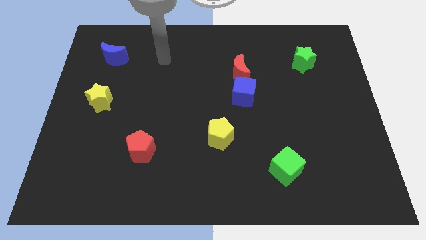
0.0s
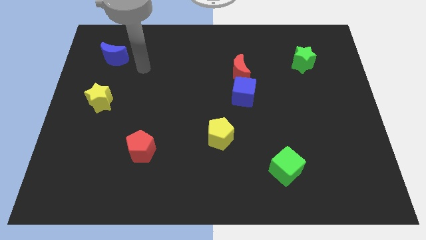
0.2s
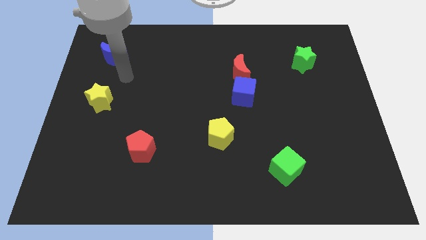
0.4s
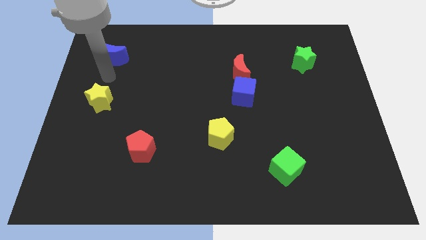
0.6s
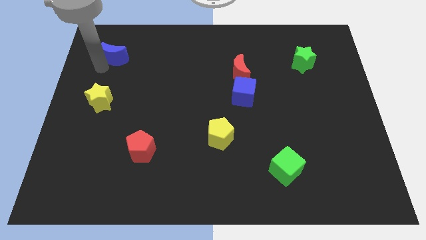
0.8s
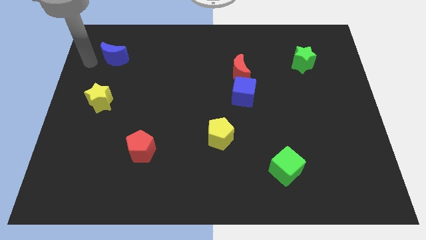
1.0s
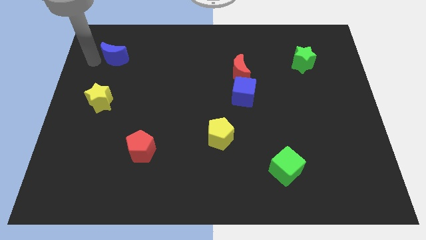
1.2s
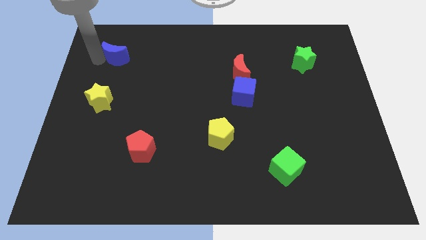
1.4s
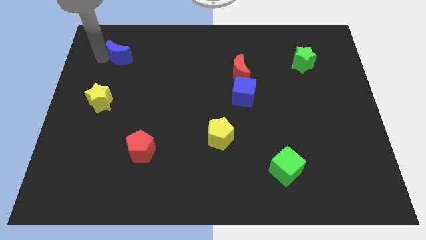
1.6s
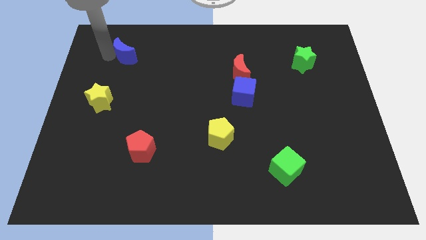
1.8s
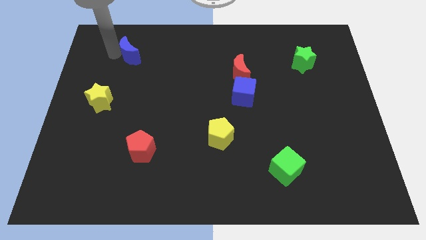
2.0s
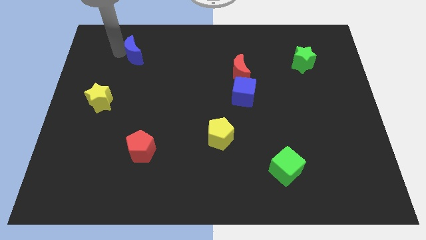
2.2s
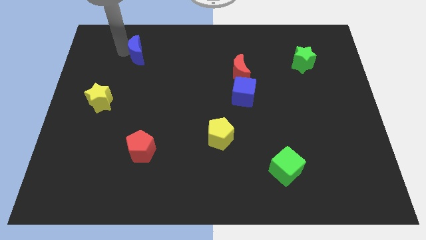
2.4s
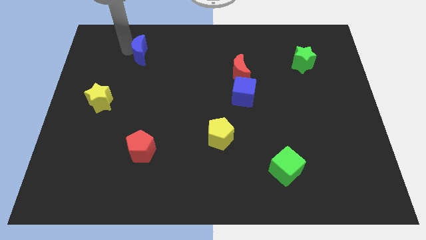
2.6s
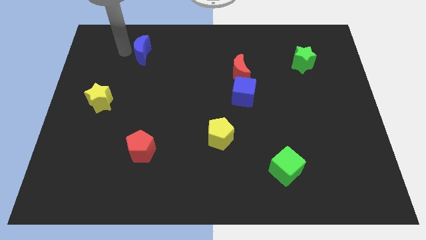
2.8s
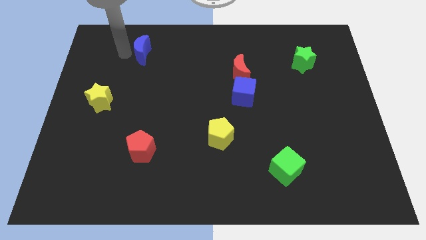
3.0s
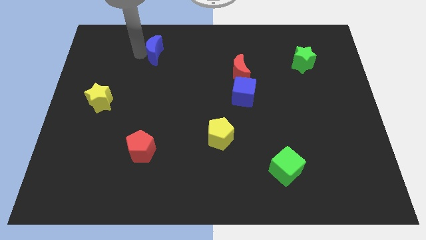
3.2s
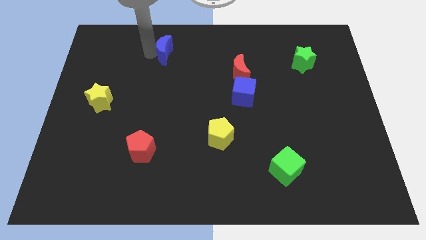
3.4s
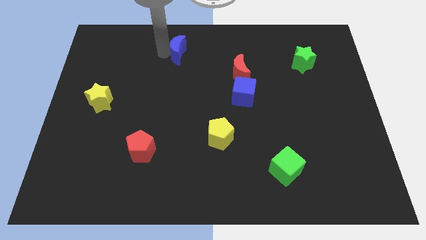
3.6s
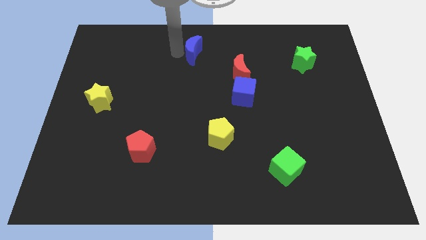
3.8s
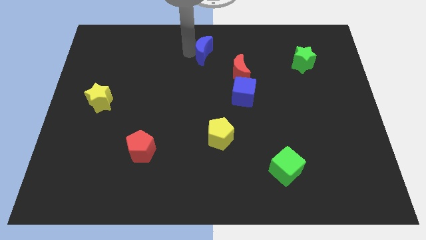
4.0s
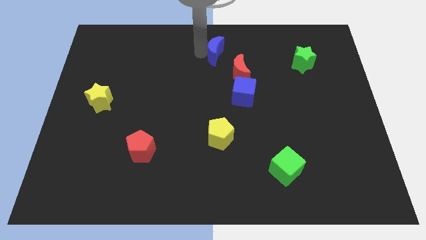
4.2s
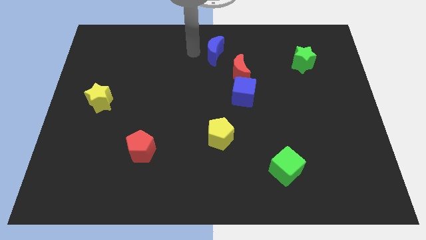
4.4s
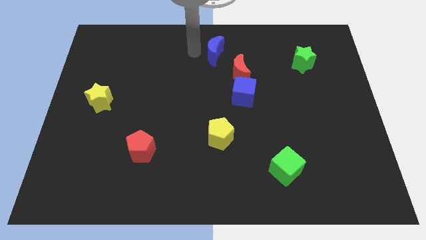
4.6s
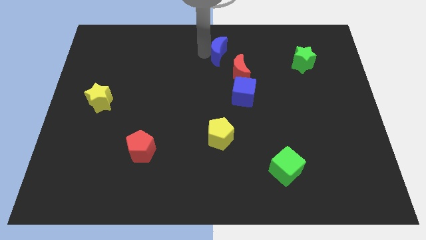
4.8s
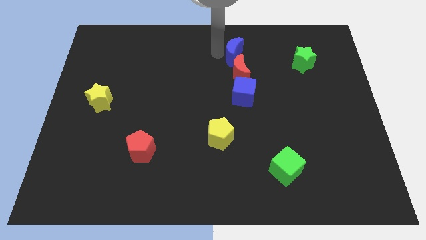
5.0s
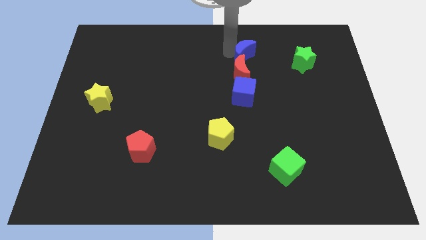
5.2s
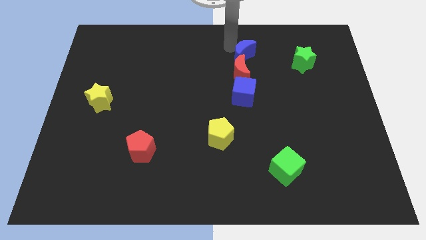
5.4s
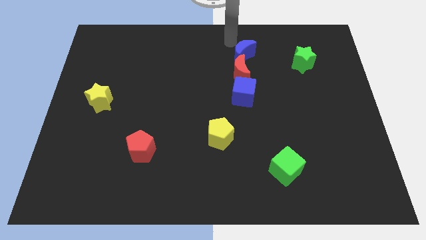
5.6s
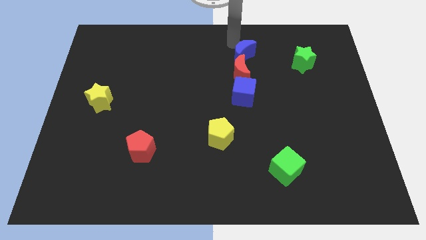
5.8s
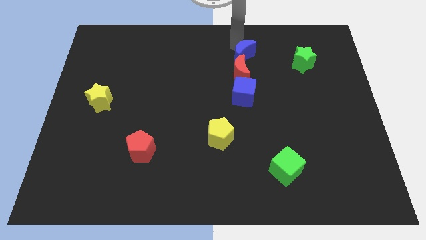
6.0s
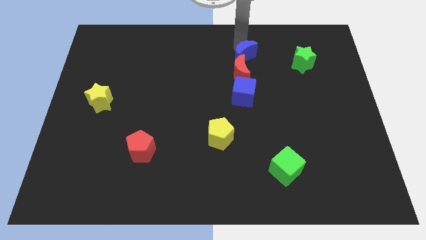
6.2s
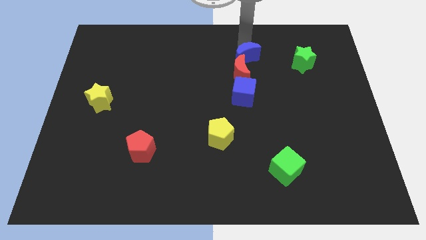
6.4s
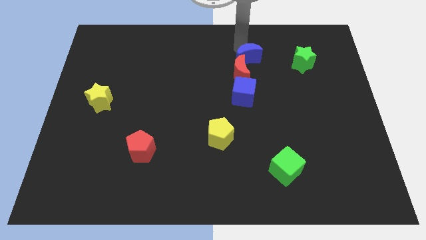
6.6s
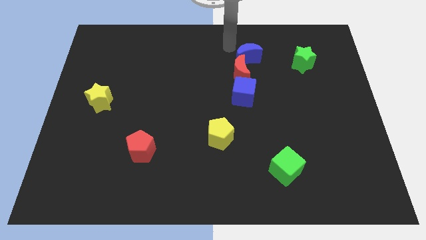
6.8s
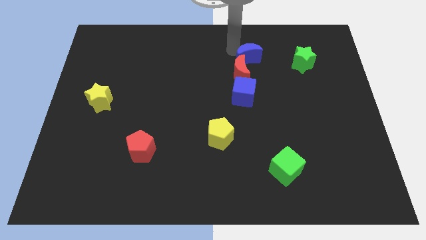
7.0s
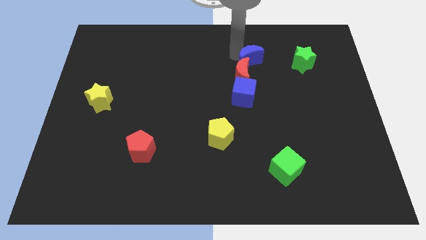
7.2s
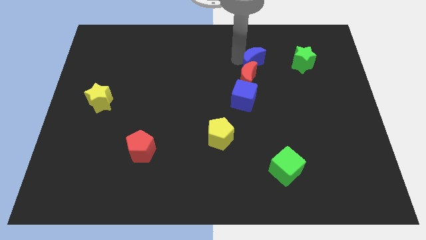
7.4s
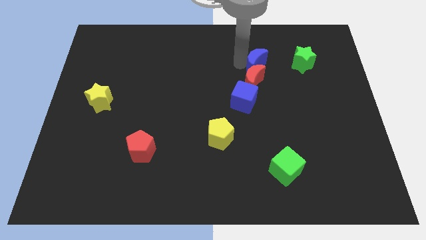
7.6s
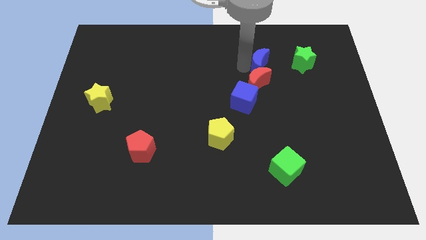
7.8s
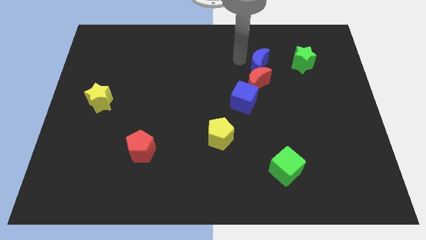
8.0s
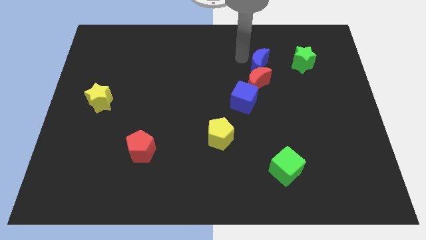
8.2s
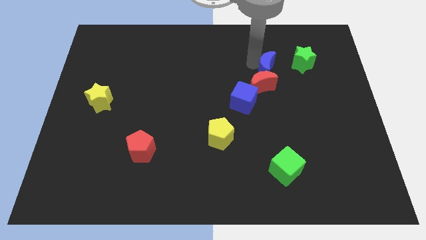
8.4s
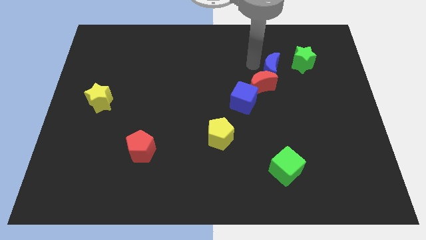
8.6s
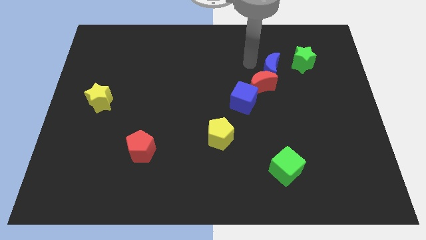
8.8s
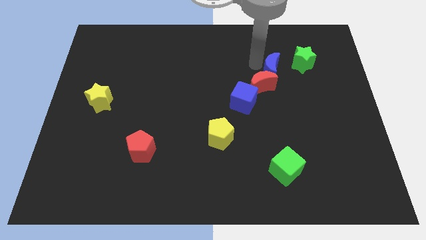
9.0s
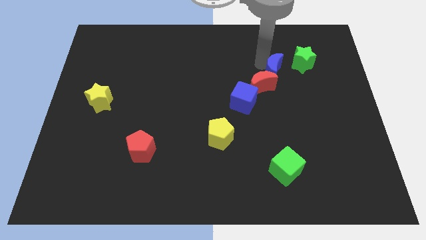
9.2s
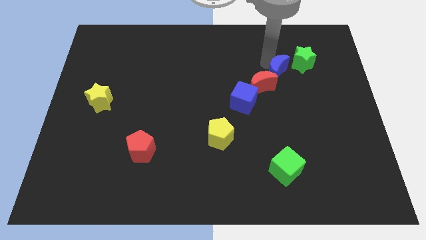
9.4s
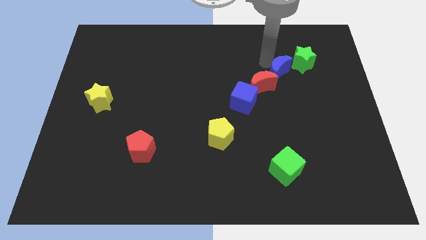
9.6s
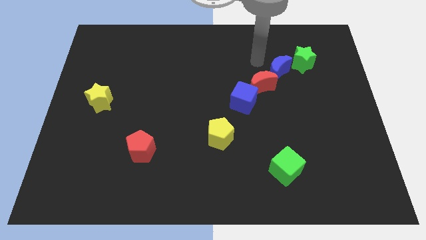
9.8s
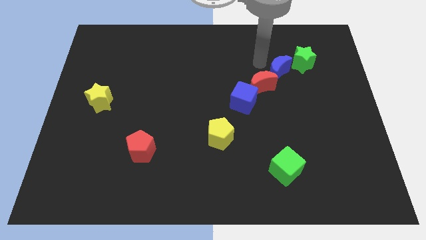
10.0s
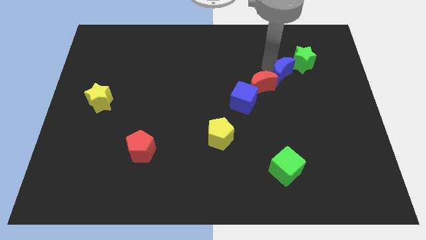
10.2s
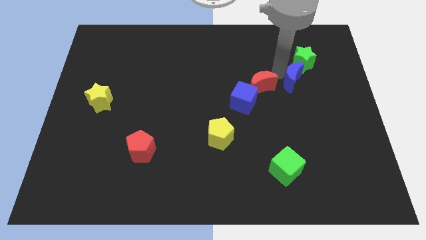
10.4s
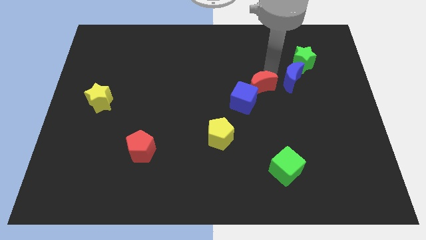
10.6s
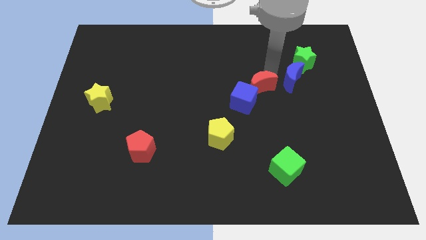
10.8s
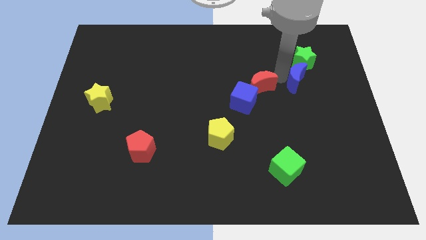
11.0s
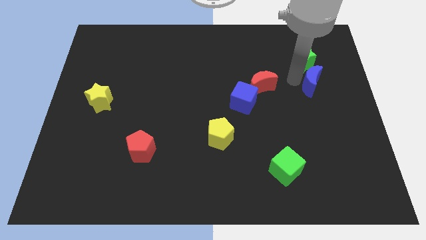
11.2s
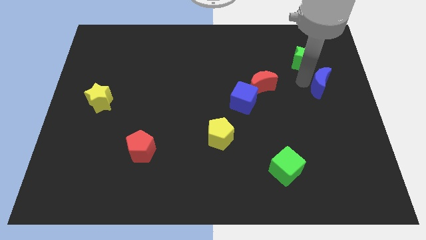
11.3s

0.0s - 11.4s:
put the blue moon to the right side of the board

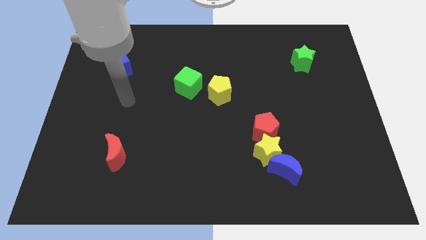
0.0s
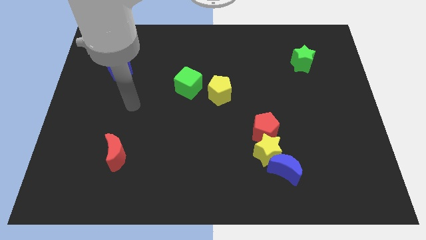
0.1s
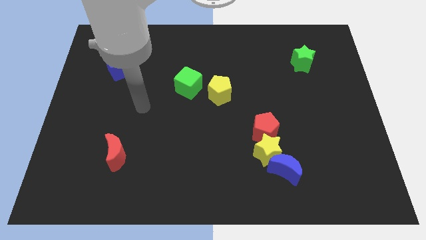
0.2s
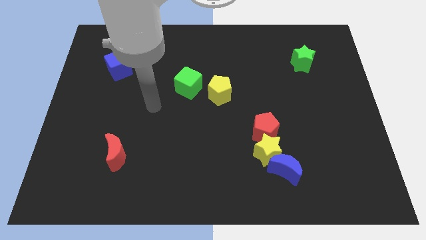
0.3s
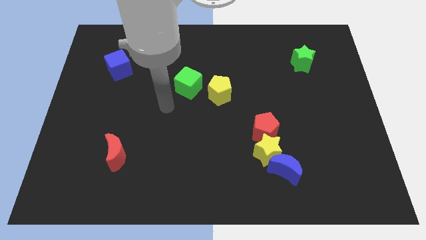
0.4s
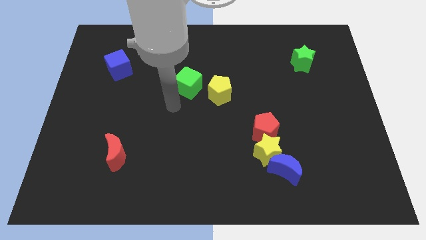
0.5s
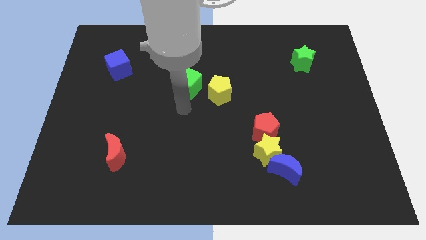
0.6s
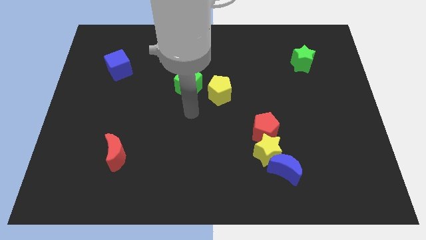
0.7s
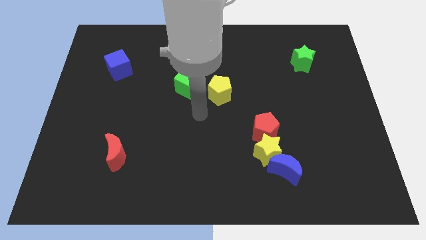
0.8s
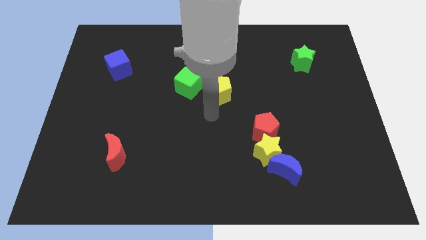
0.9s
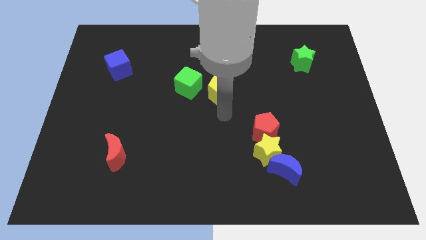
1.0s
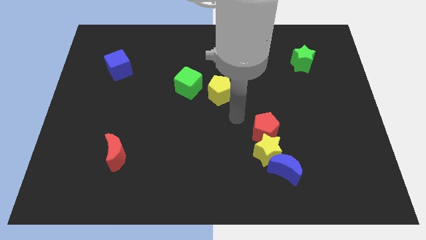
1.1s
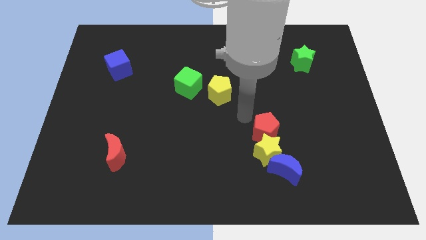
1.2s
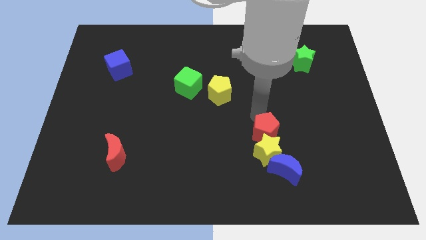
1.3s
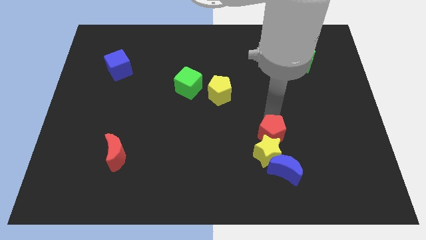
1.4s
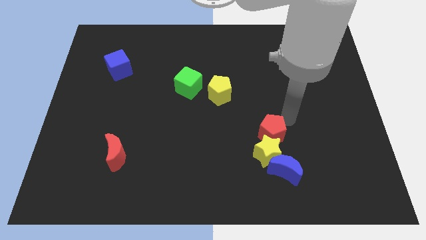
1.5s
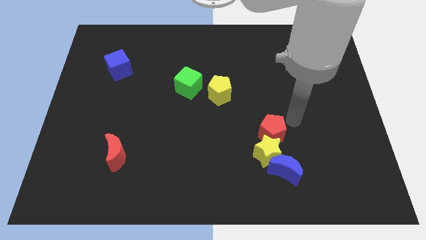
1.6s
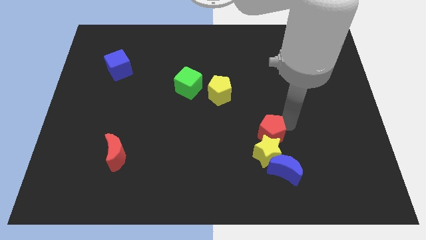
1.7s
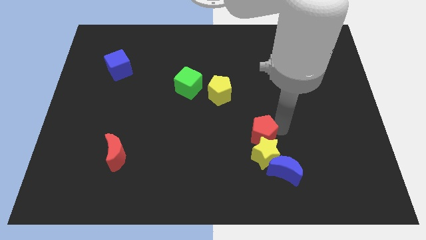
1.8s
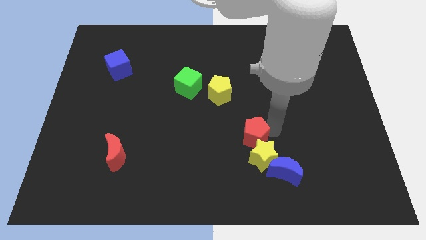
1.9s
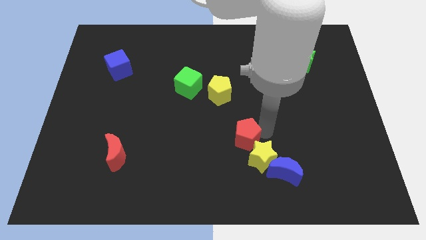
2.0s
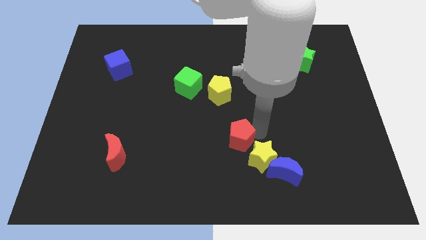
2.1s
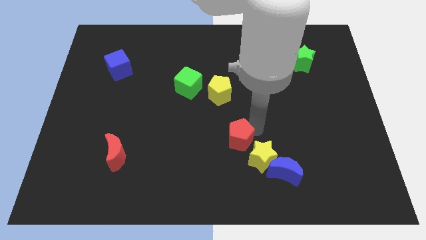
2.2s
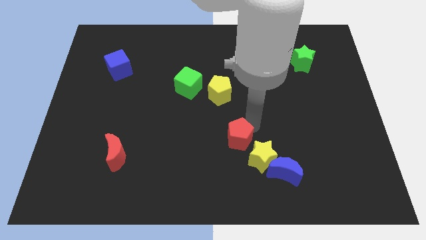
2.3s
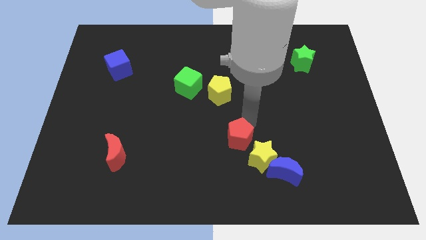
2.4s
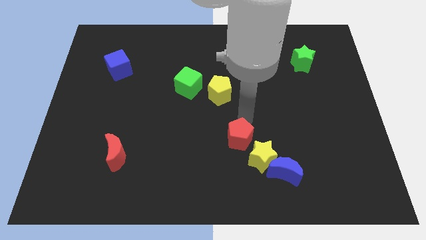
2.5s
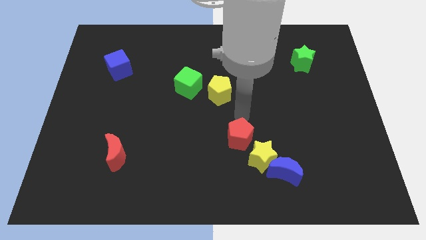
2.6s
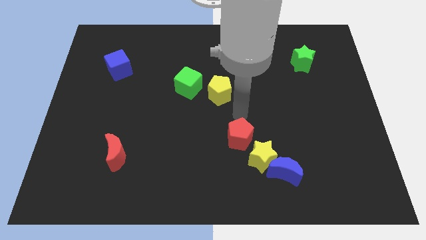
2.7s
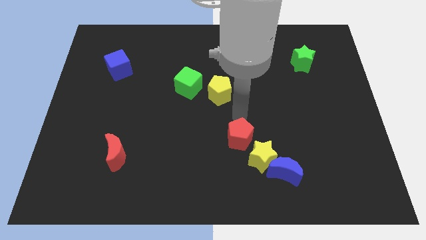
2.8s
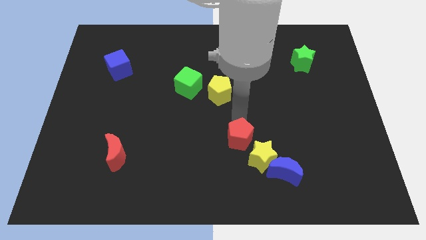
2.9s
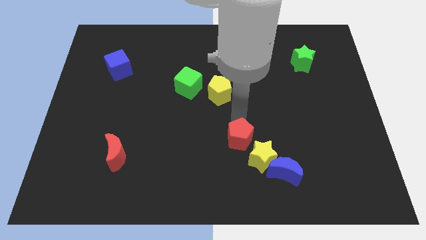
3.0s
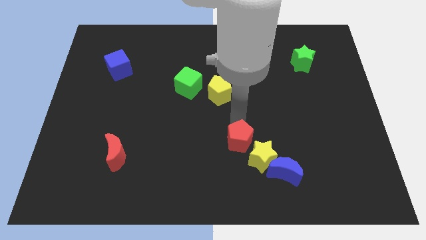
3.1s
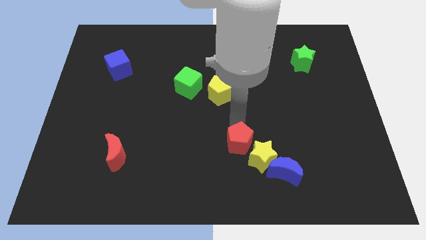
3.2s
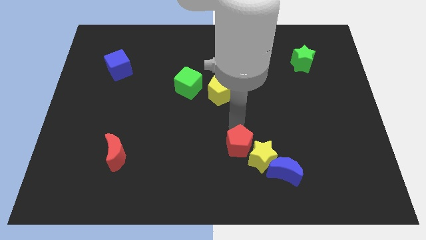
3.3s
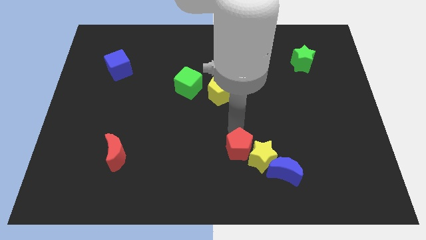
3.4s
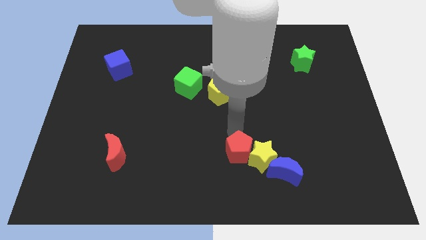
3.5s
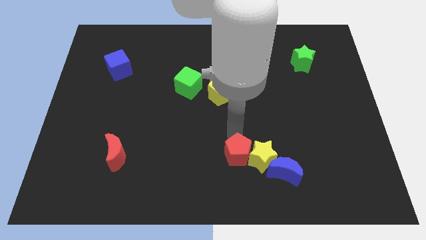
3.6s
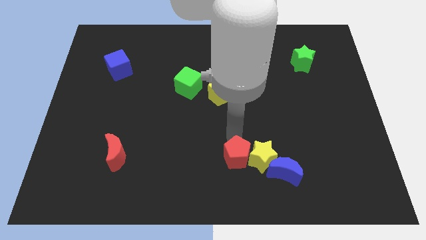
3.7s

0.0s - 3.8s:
move the red pentagon to the bottom side
